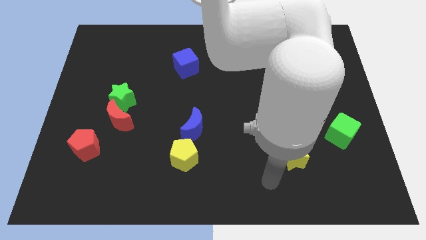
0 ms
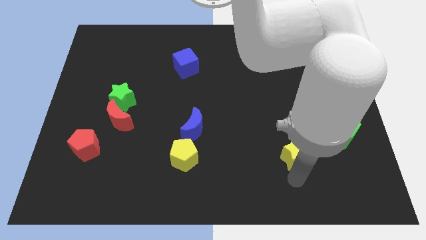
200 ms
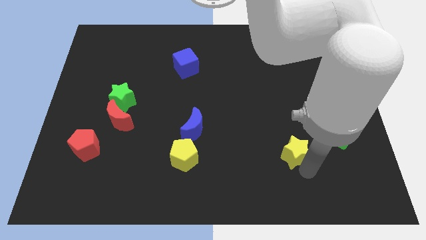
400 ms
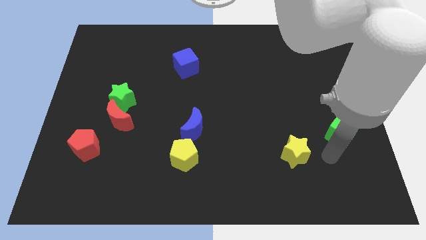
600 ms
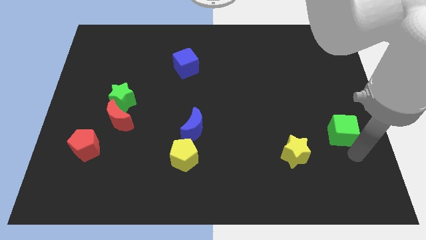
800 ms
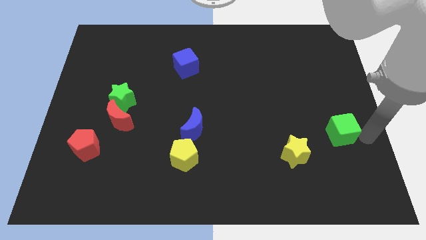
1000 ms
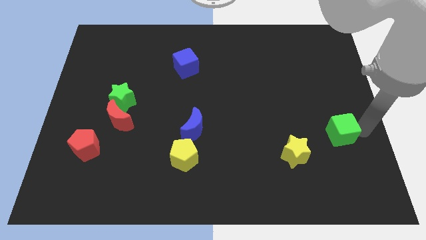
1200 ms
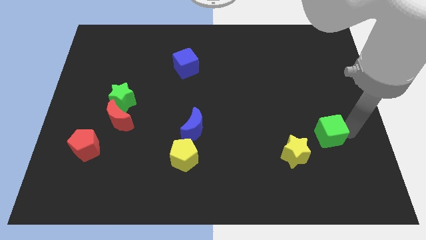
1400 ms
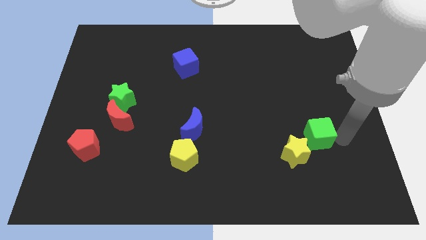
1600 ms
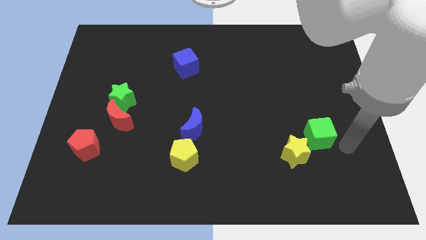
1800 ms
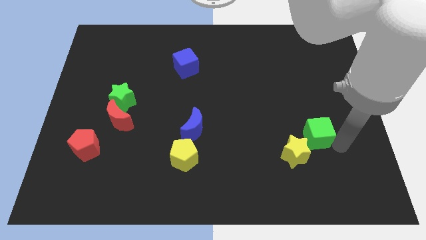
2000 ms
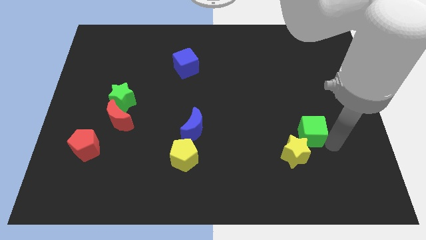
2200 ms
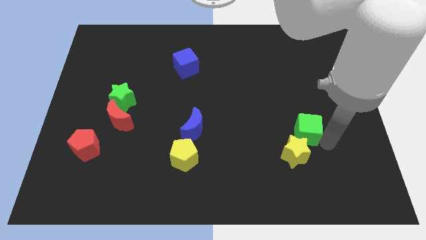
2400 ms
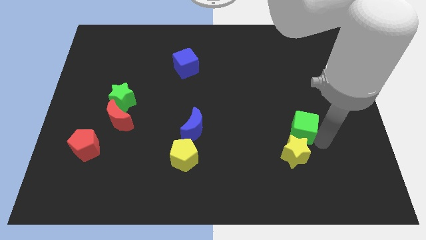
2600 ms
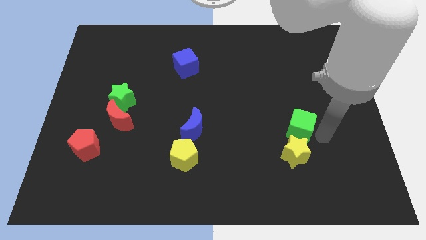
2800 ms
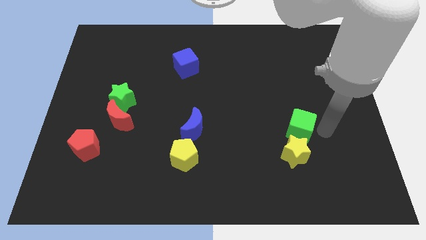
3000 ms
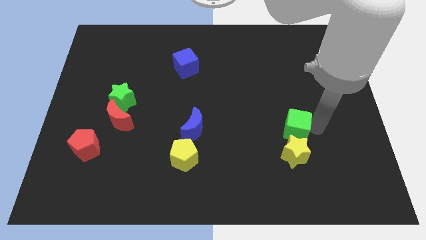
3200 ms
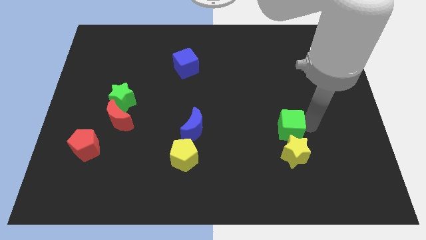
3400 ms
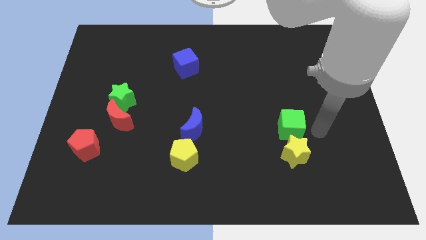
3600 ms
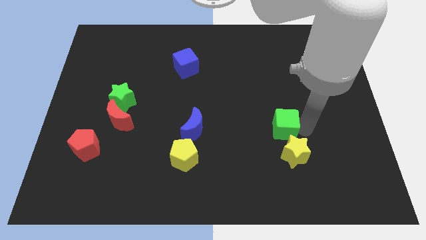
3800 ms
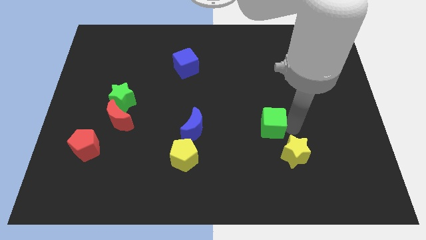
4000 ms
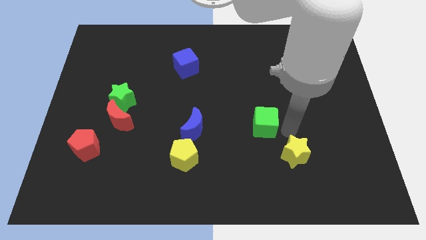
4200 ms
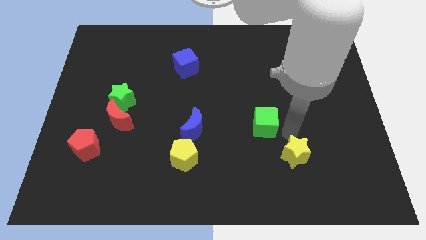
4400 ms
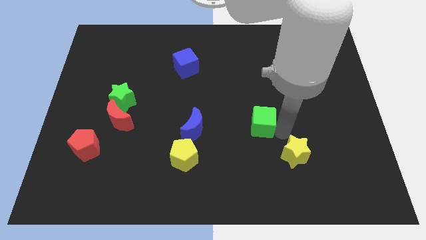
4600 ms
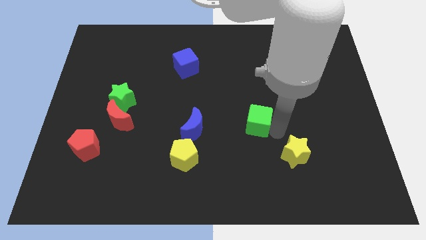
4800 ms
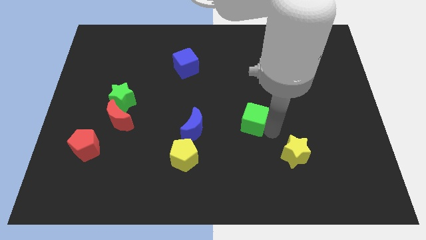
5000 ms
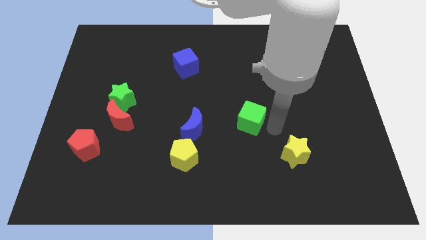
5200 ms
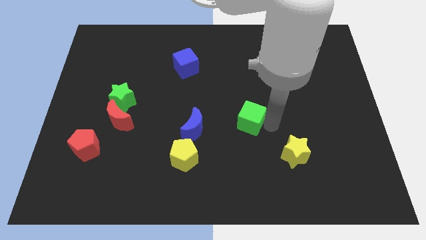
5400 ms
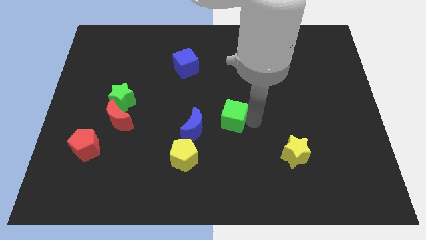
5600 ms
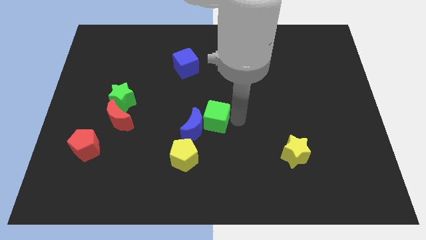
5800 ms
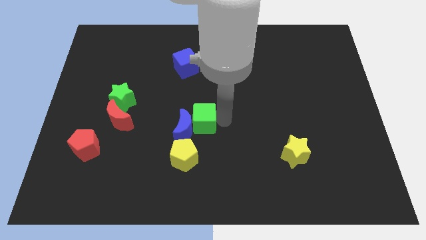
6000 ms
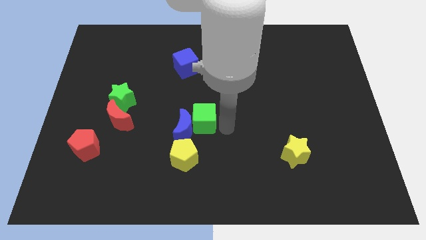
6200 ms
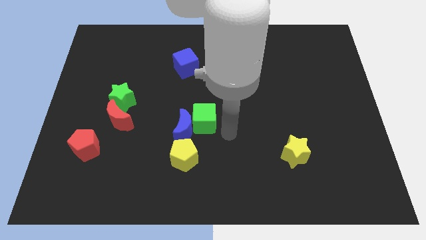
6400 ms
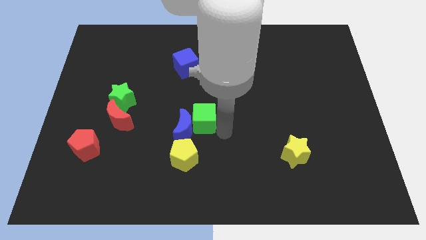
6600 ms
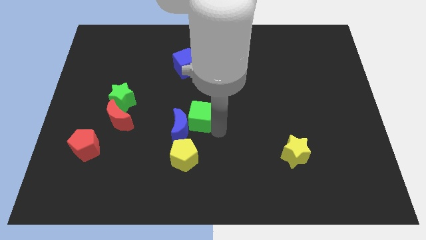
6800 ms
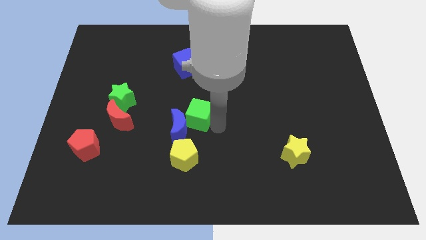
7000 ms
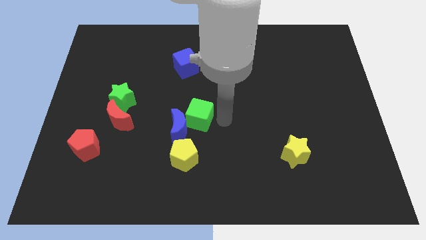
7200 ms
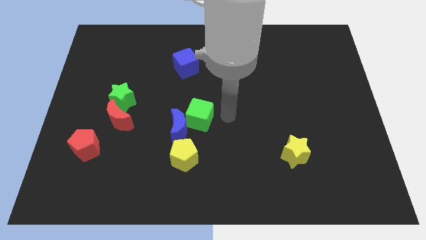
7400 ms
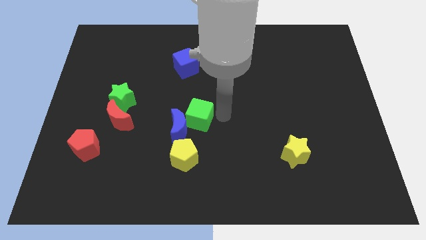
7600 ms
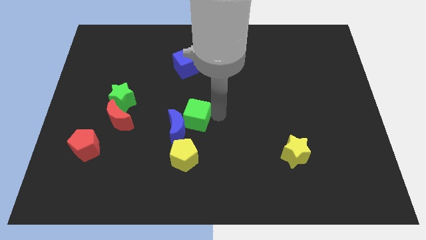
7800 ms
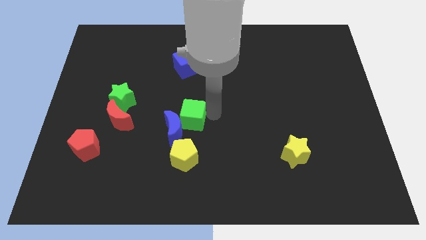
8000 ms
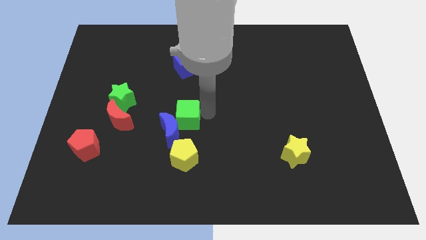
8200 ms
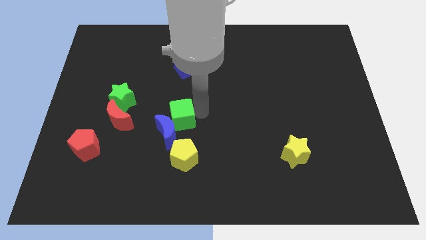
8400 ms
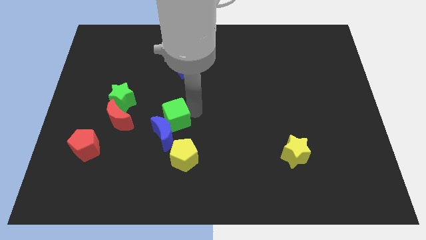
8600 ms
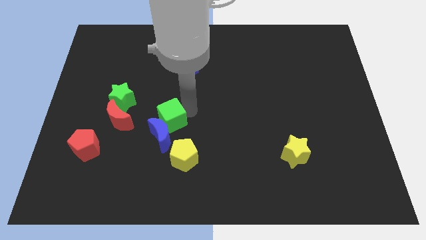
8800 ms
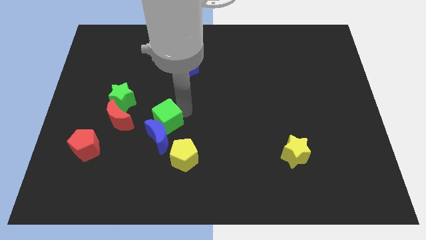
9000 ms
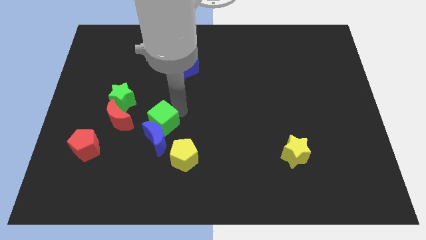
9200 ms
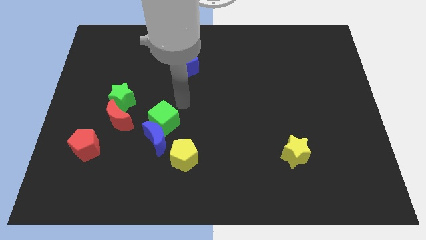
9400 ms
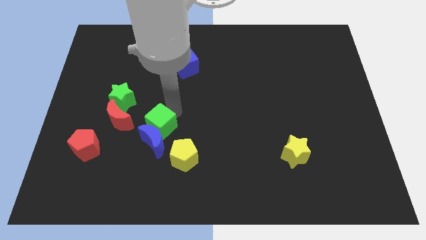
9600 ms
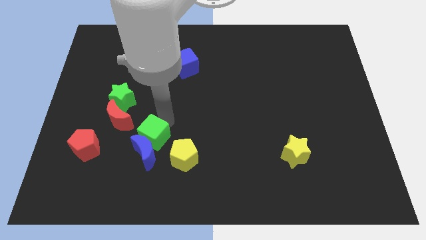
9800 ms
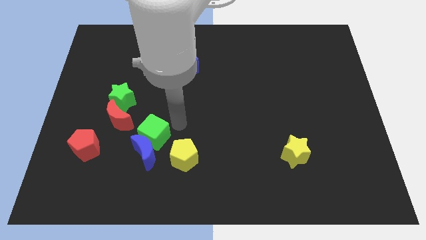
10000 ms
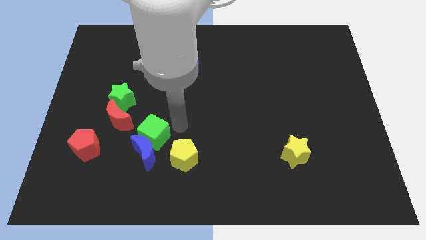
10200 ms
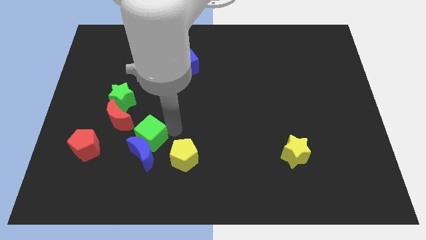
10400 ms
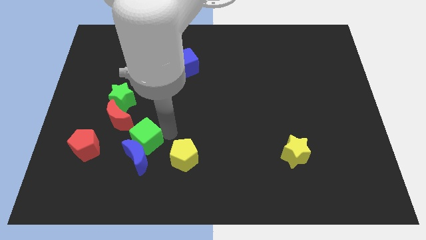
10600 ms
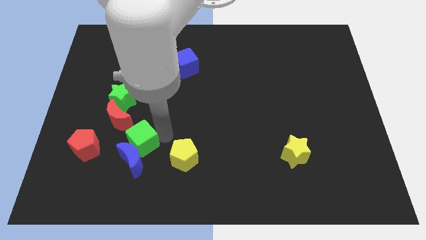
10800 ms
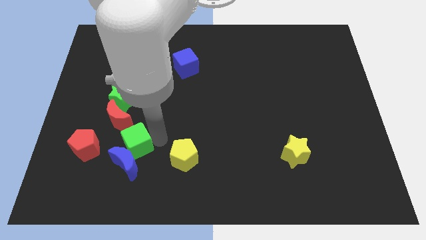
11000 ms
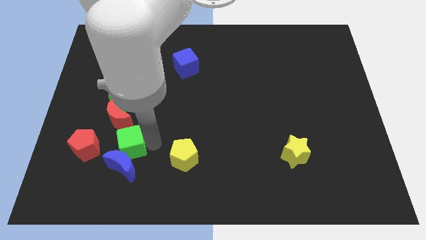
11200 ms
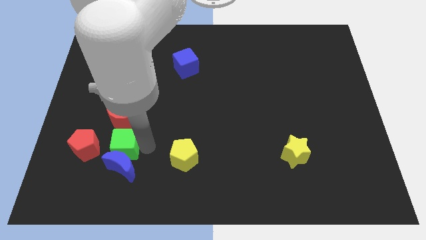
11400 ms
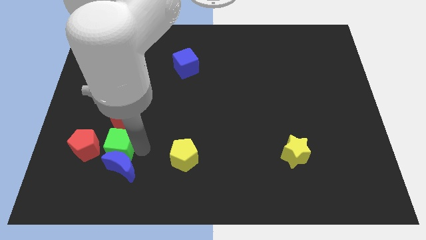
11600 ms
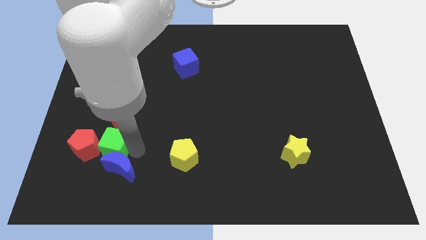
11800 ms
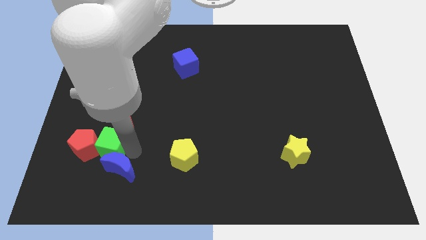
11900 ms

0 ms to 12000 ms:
slide the green cube towards the red pentagon

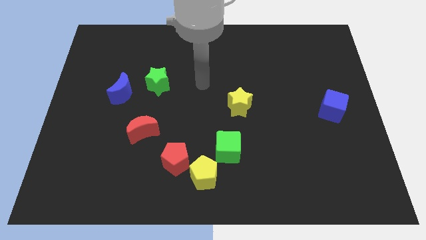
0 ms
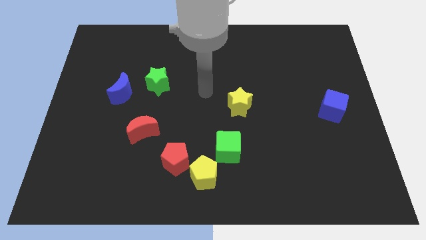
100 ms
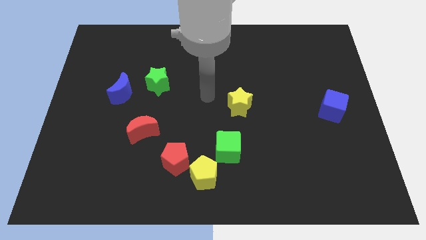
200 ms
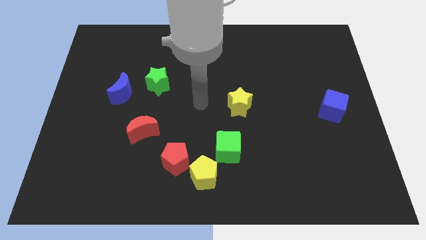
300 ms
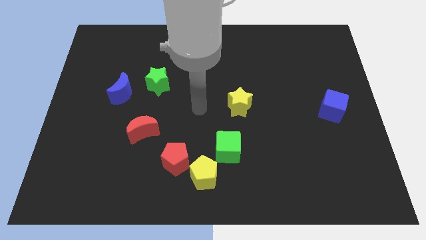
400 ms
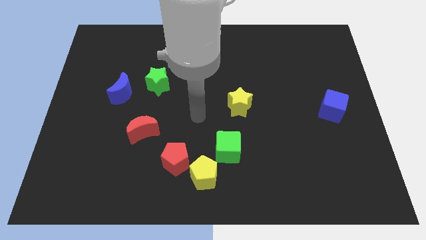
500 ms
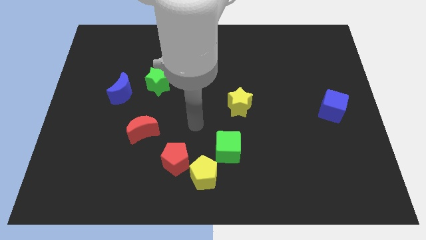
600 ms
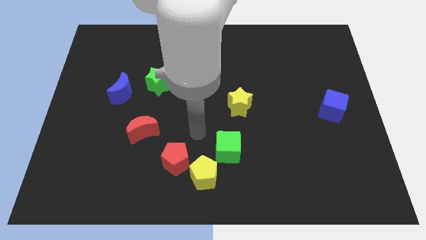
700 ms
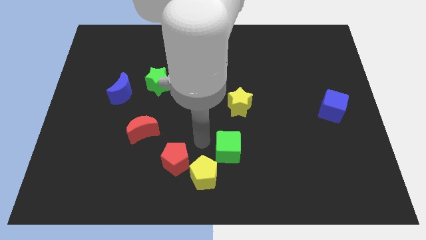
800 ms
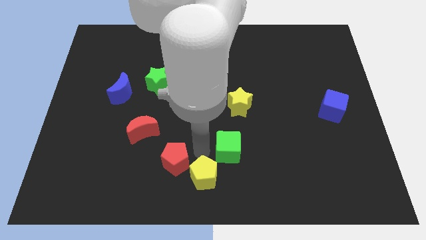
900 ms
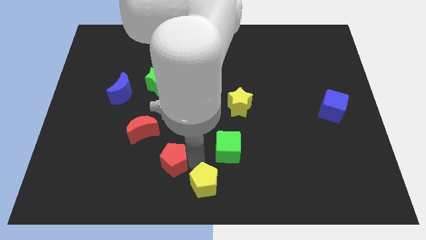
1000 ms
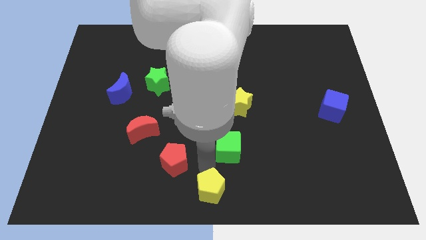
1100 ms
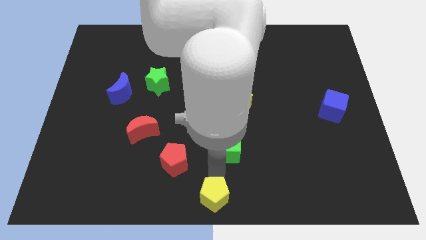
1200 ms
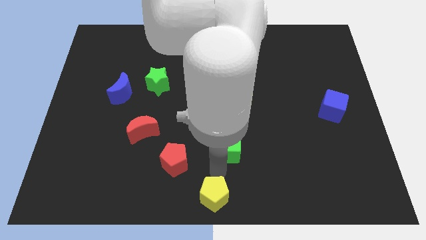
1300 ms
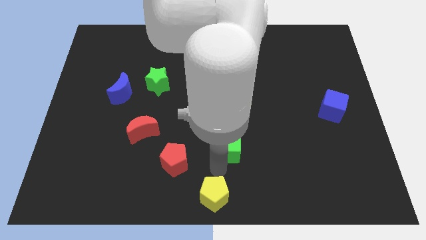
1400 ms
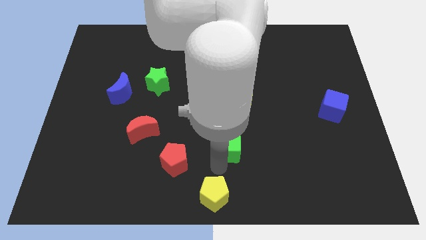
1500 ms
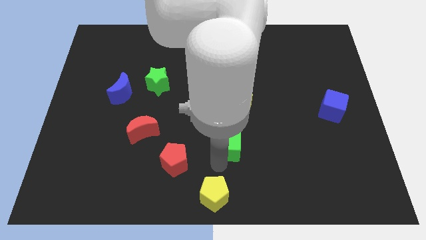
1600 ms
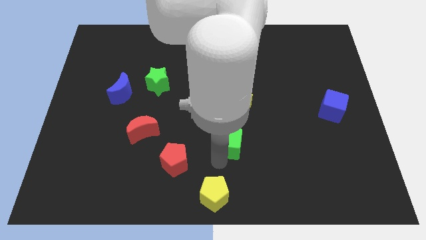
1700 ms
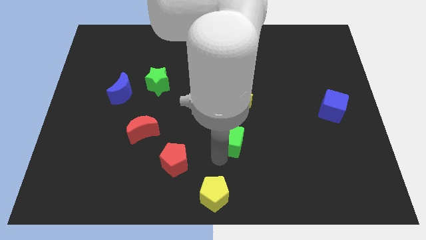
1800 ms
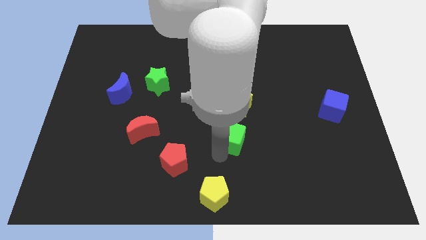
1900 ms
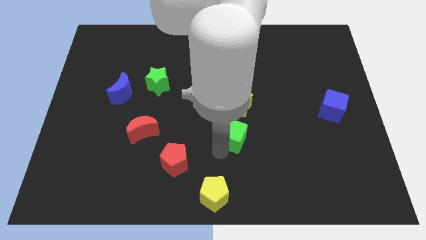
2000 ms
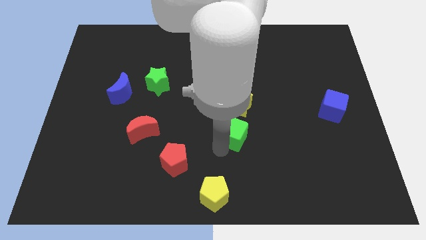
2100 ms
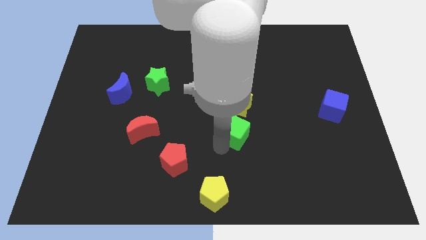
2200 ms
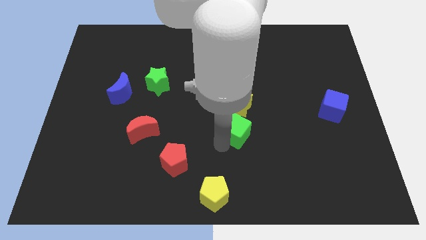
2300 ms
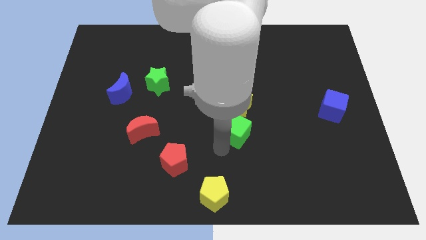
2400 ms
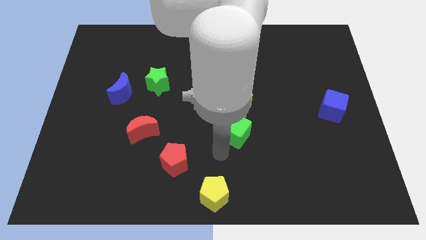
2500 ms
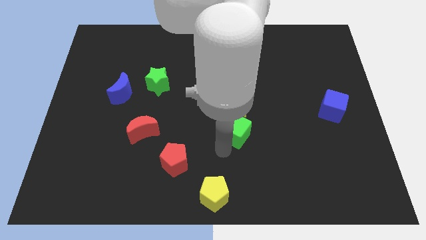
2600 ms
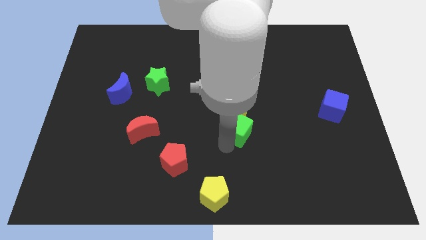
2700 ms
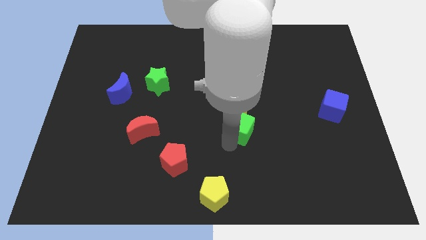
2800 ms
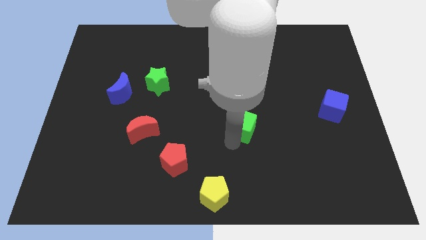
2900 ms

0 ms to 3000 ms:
put the green cube close to the yellow star
